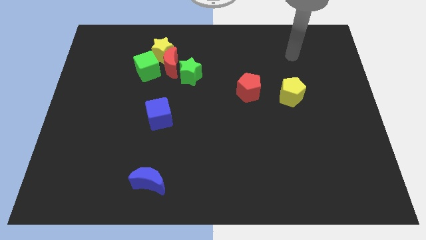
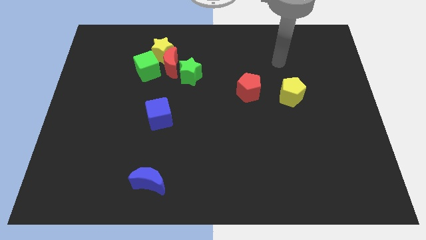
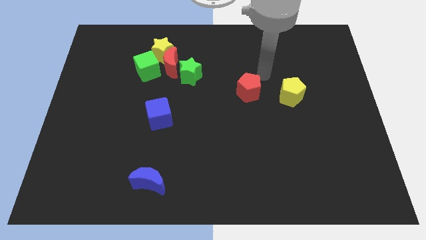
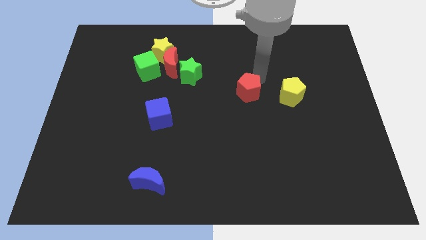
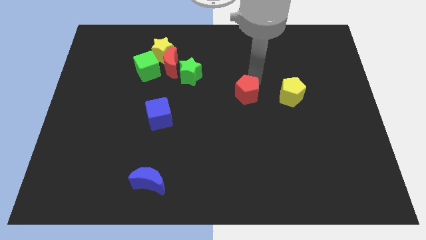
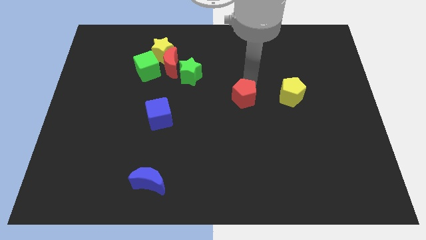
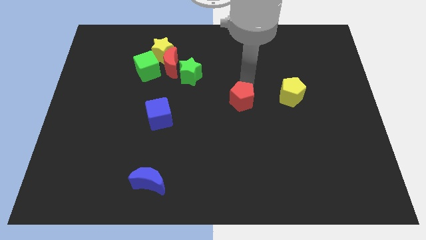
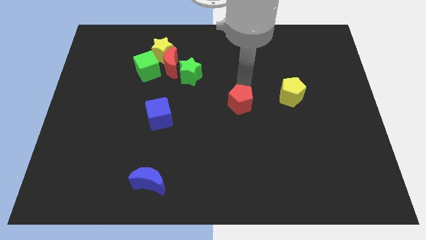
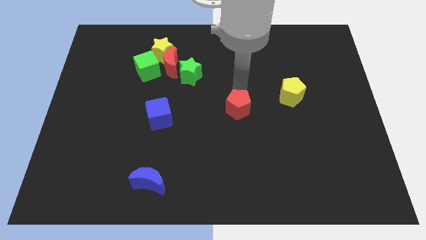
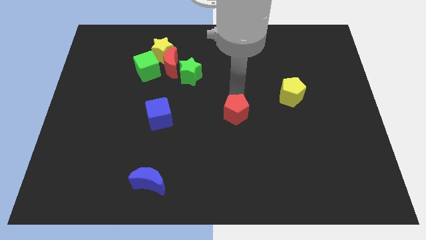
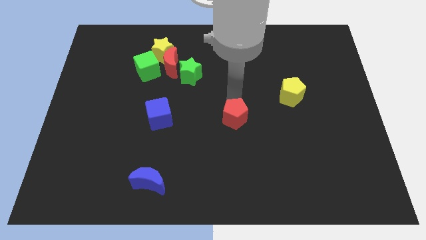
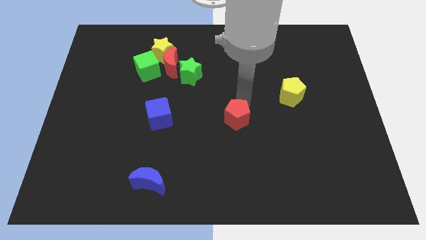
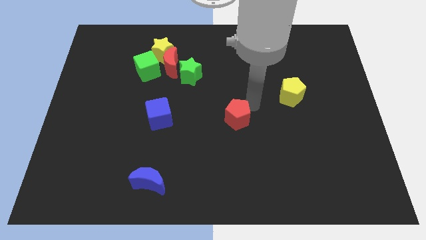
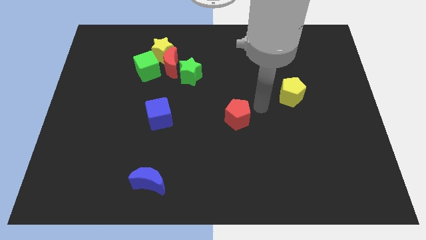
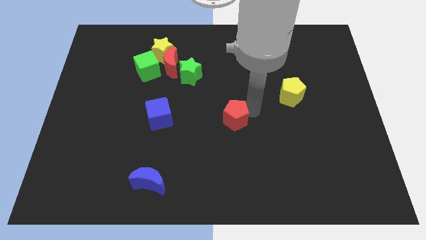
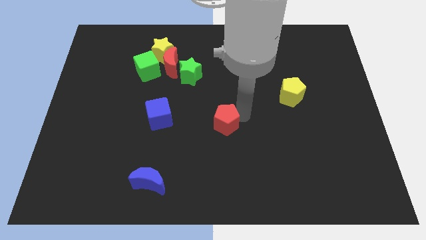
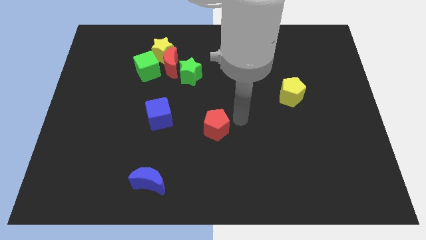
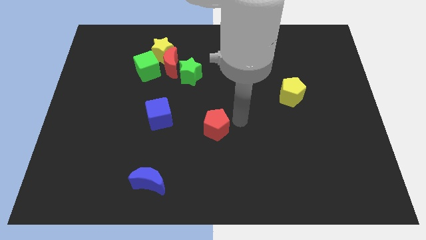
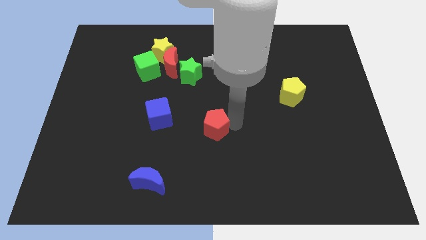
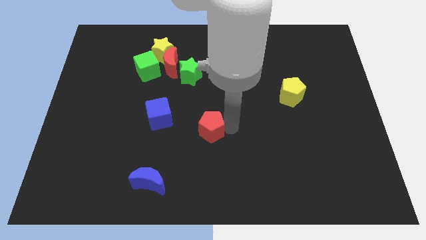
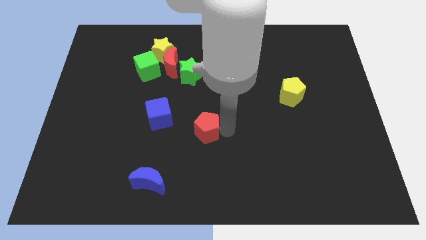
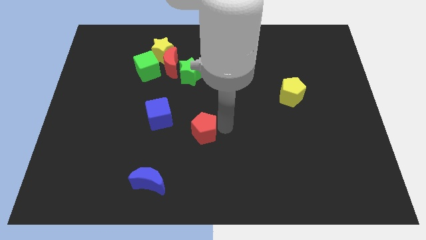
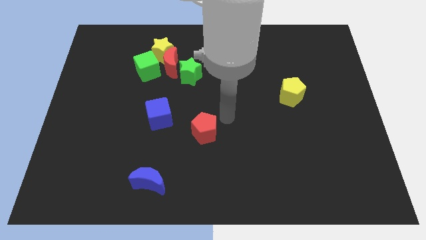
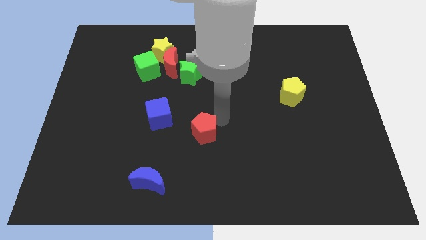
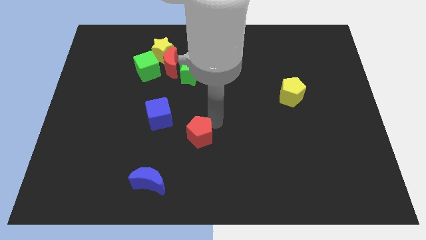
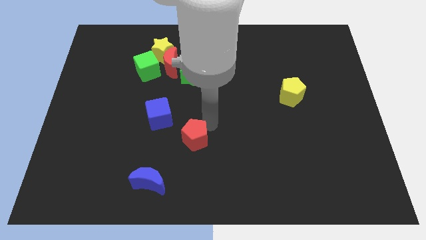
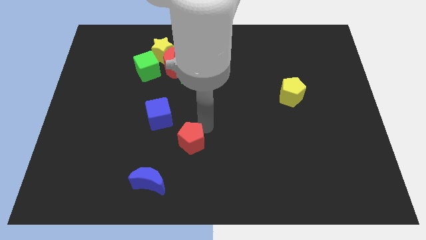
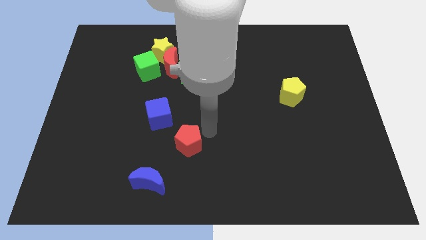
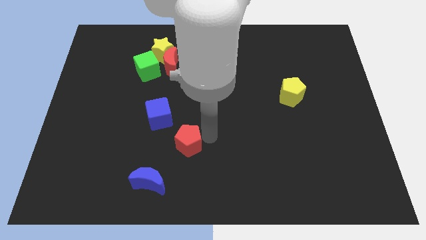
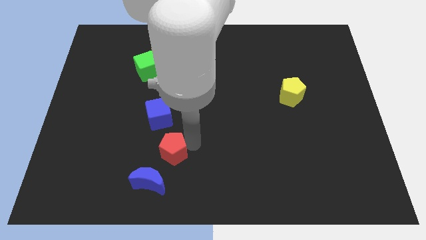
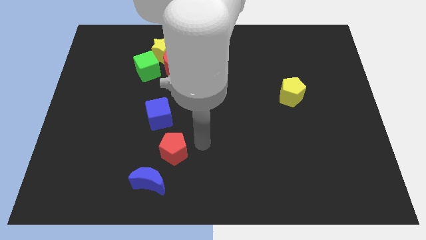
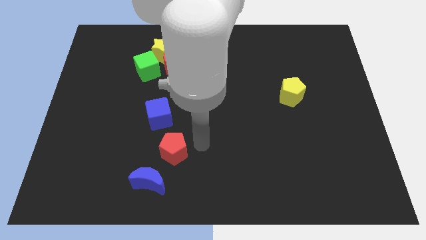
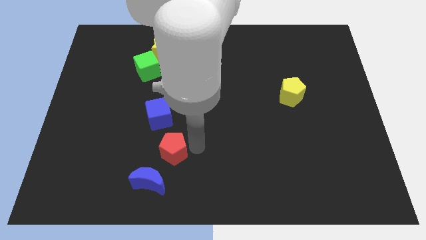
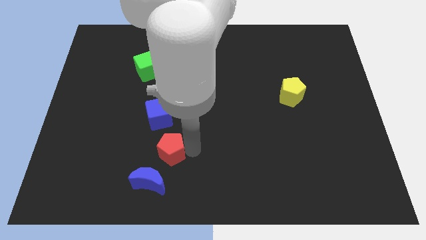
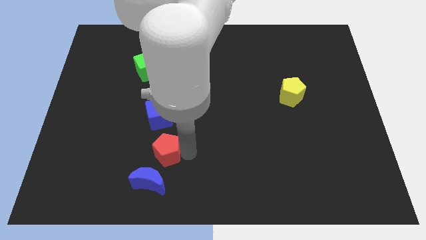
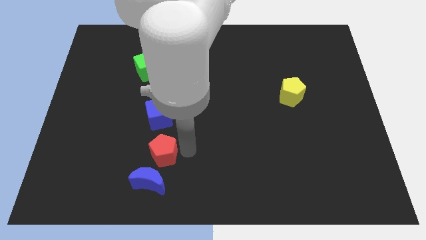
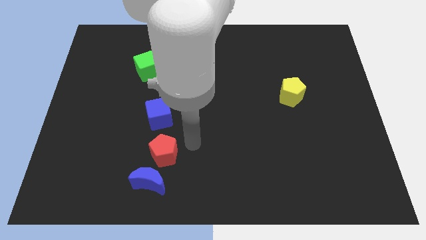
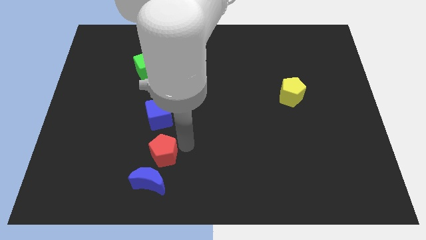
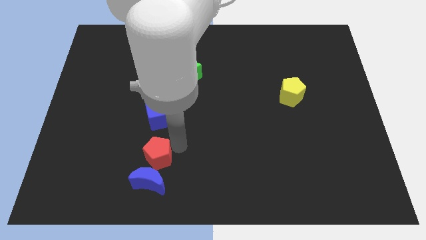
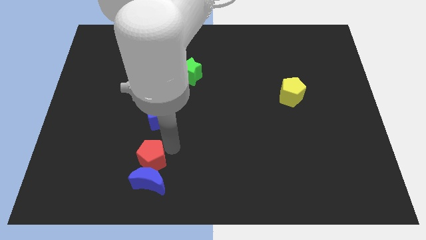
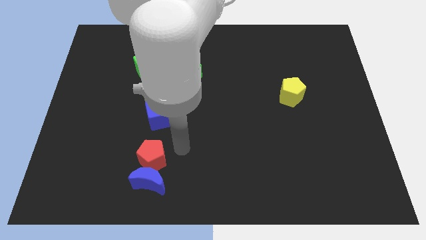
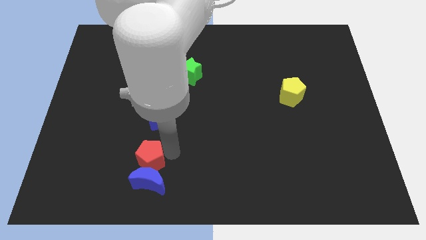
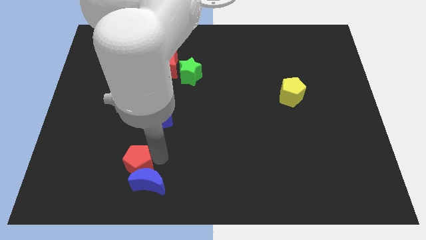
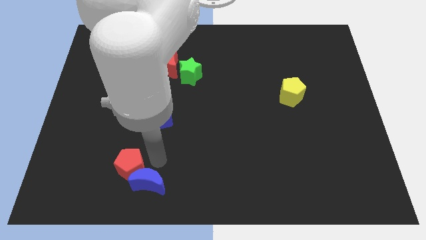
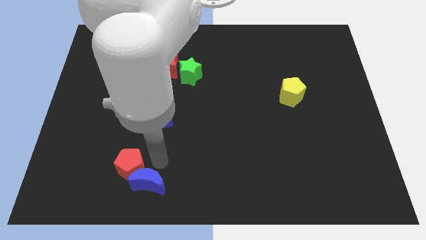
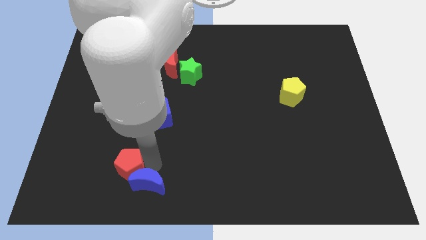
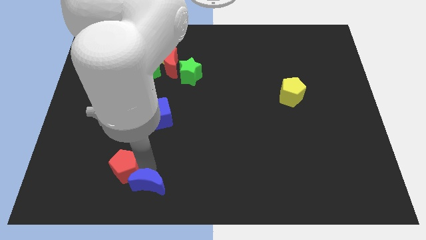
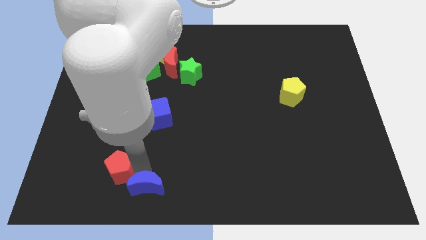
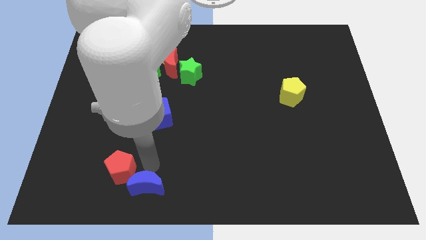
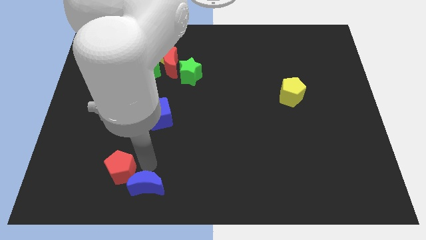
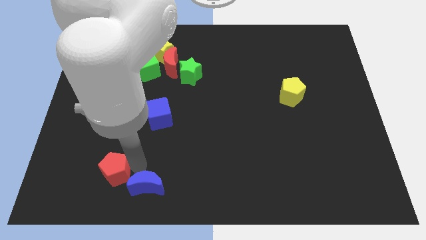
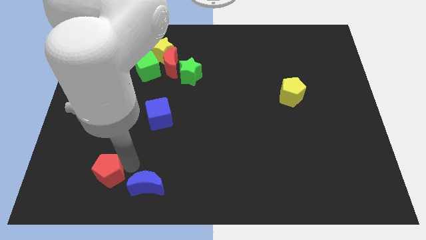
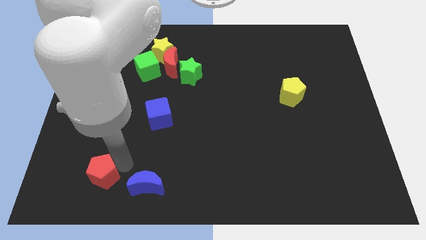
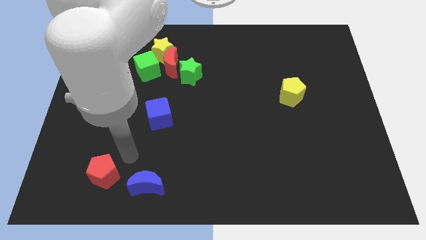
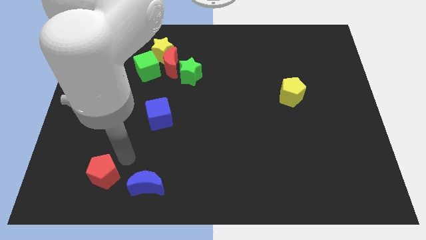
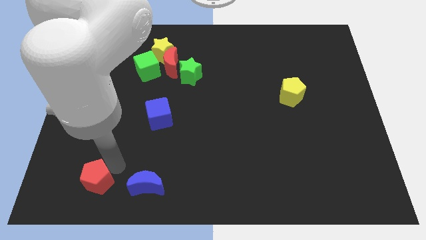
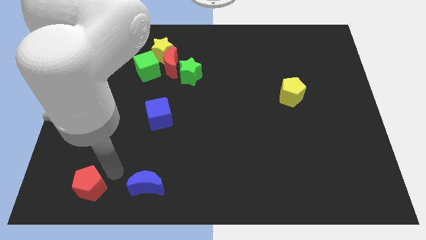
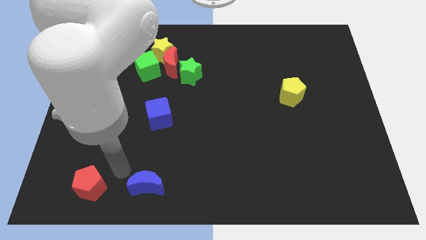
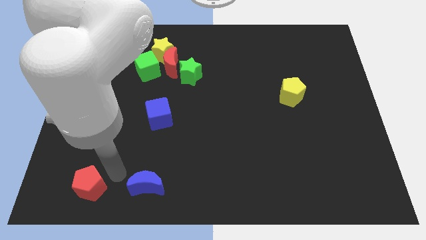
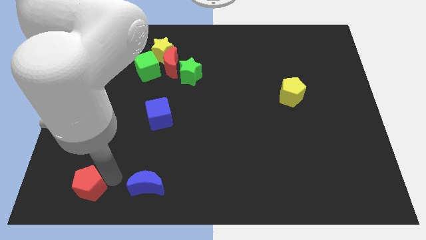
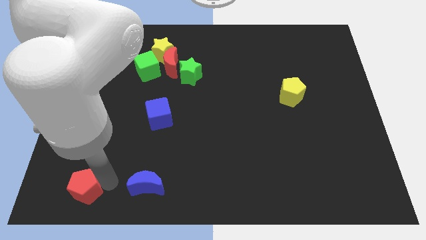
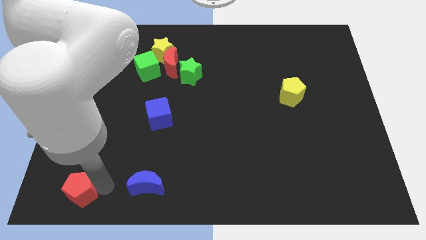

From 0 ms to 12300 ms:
slide the red pentagon to the bottom left

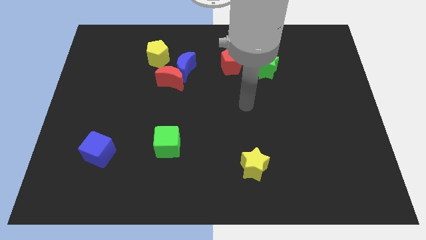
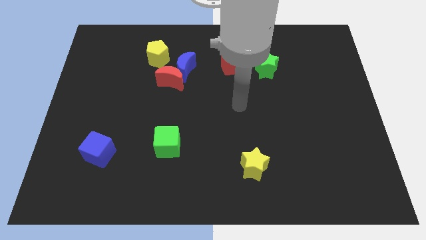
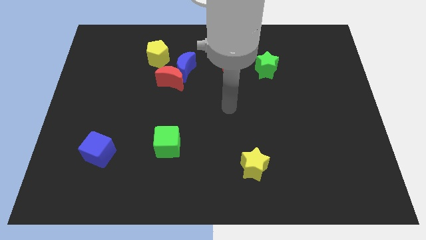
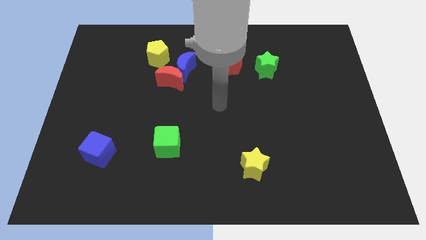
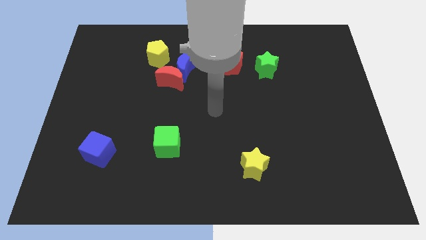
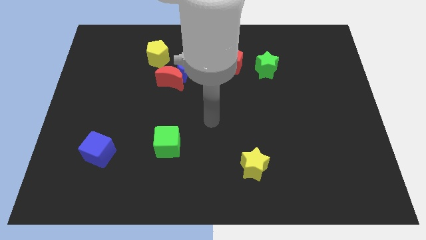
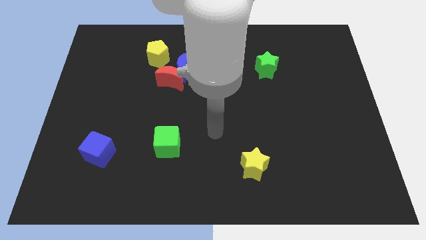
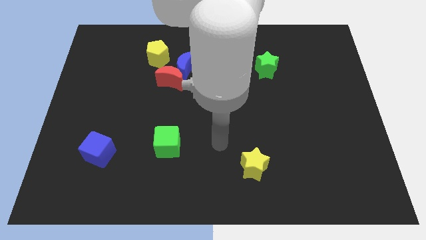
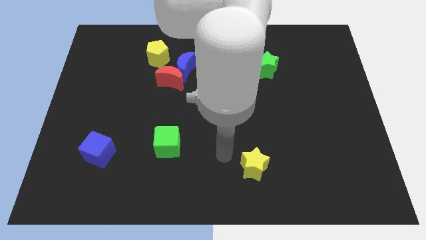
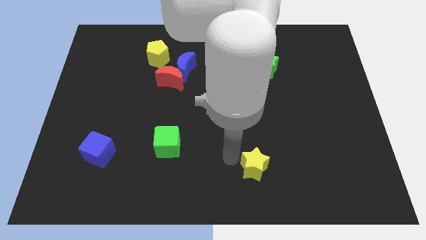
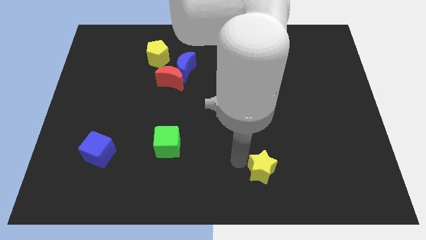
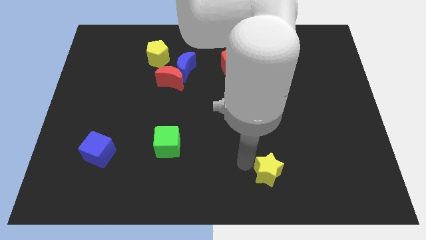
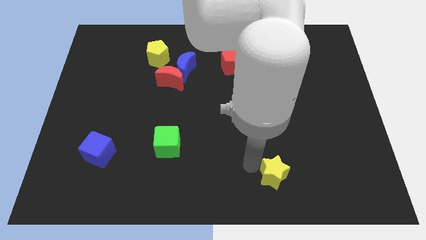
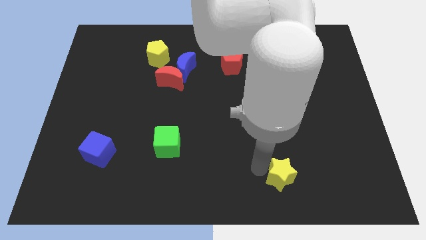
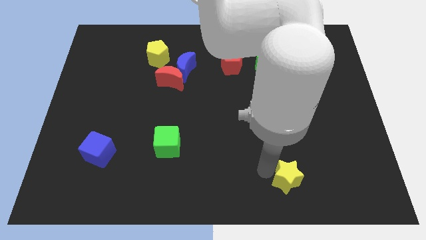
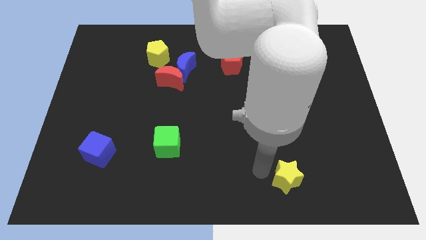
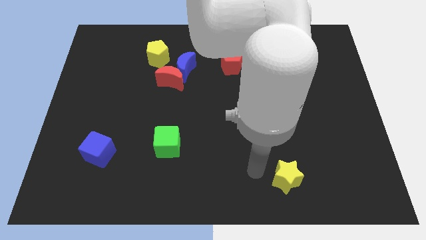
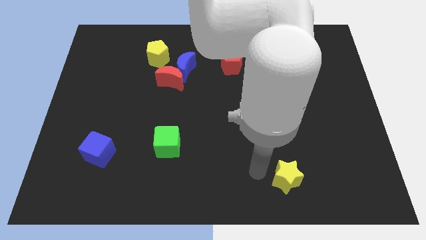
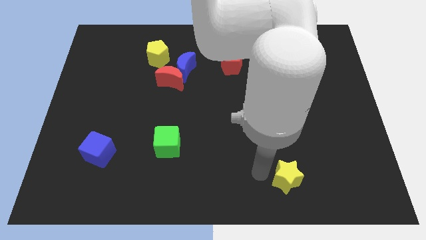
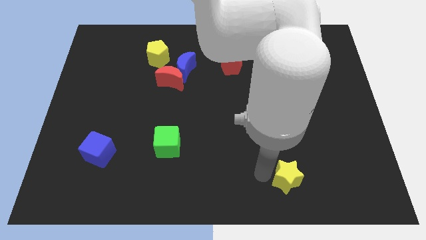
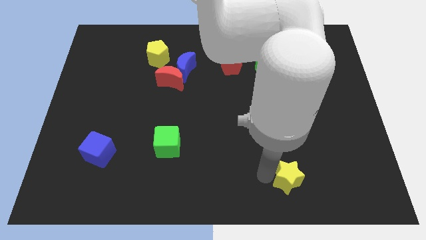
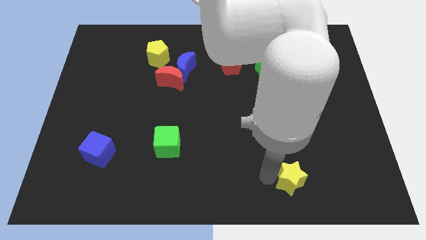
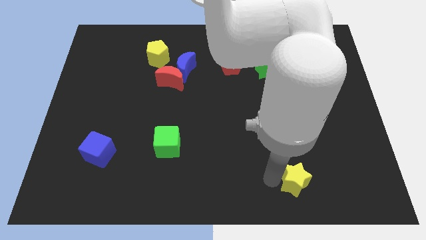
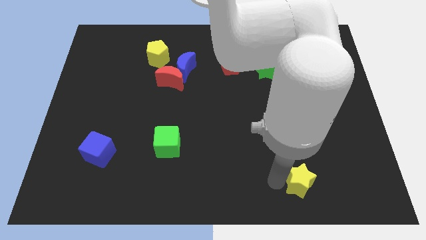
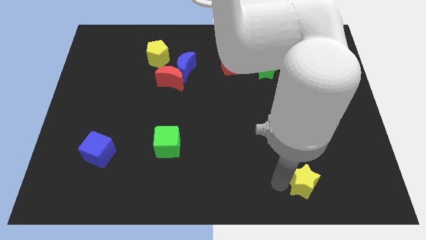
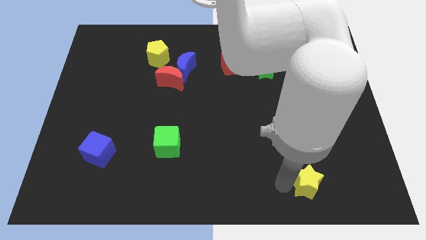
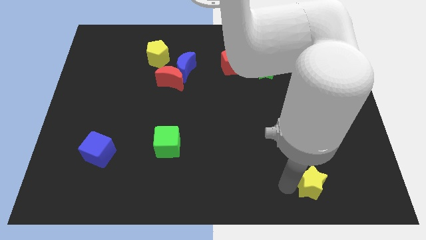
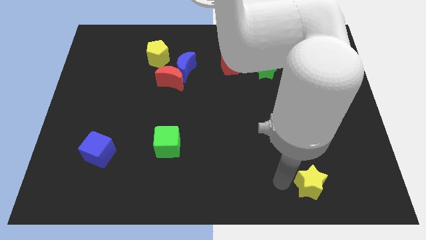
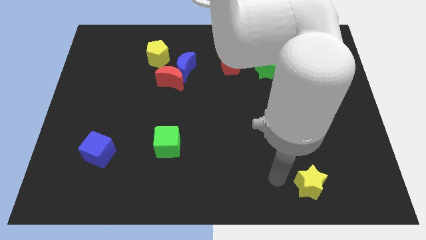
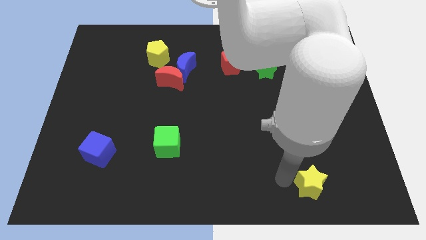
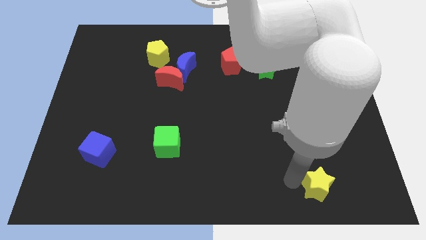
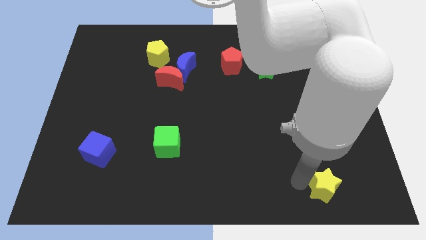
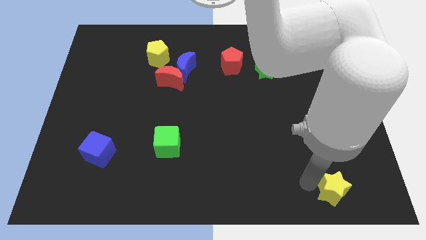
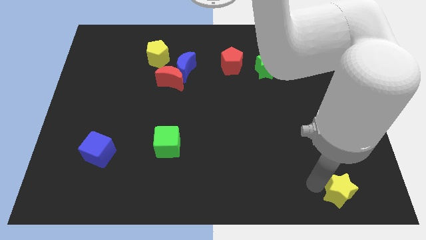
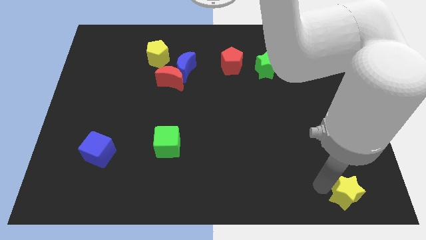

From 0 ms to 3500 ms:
push the yellow star to the bottom right of the board
